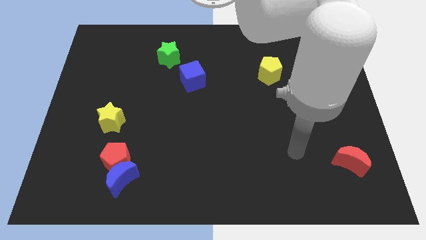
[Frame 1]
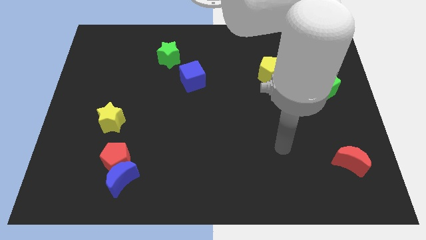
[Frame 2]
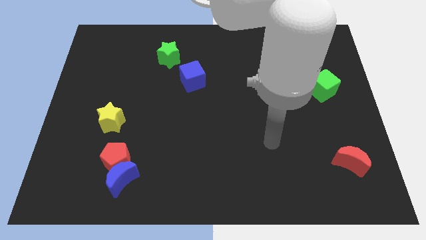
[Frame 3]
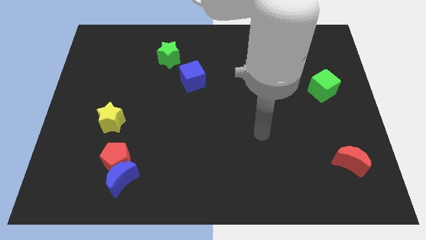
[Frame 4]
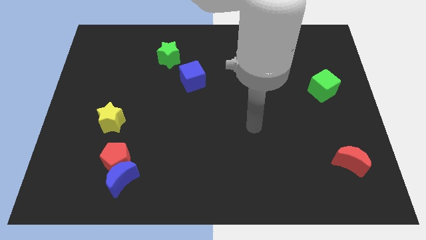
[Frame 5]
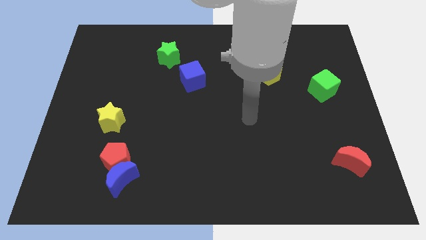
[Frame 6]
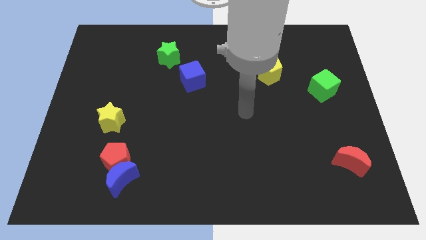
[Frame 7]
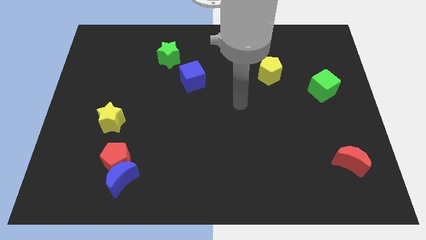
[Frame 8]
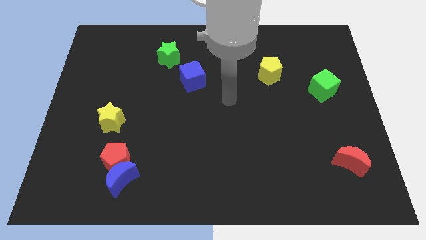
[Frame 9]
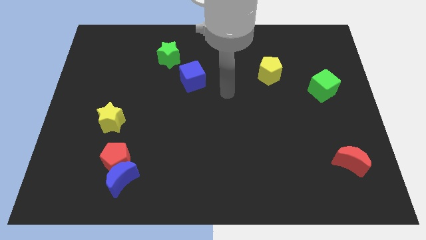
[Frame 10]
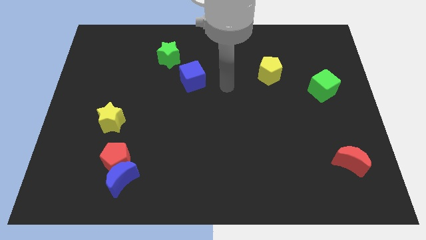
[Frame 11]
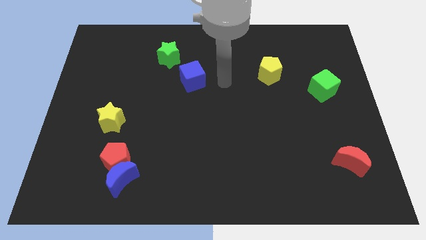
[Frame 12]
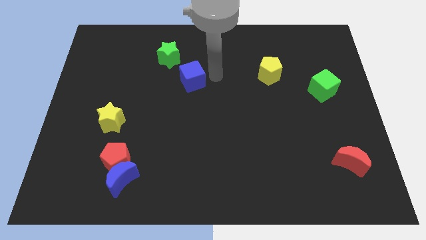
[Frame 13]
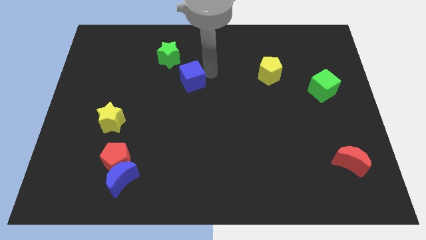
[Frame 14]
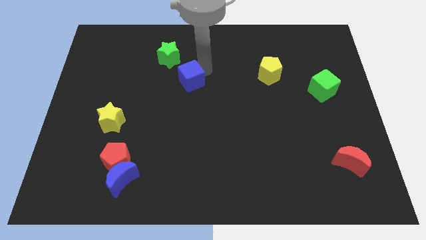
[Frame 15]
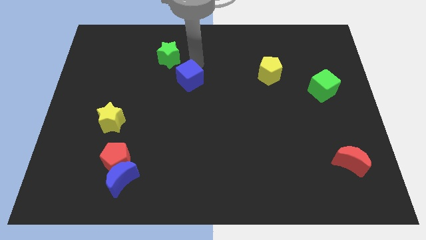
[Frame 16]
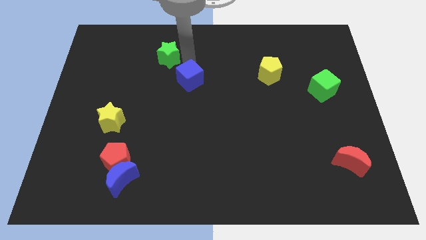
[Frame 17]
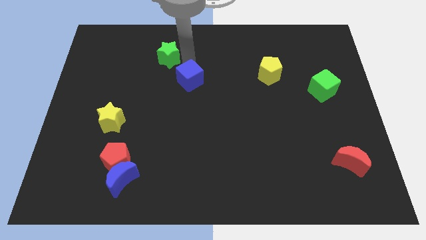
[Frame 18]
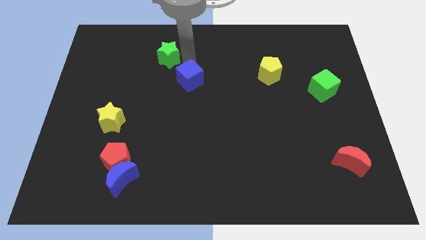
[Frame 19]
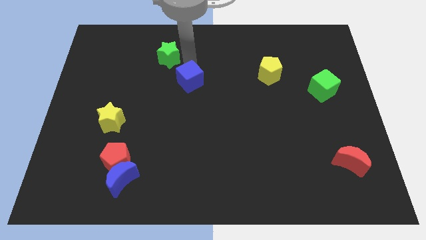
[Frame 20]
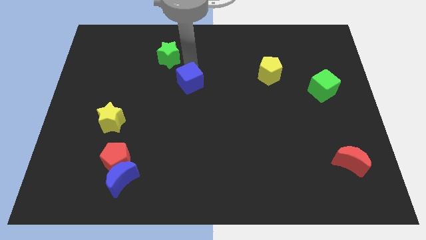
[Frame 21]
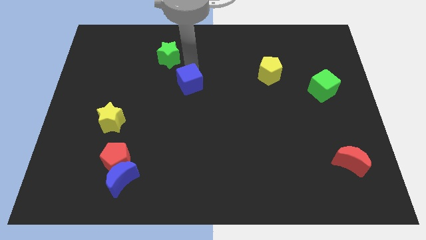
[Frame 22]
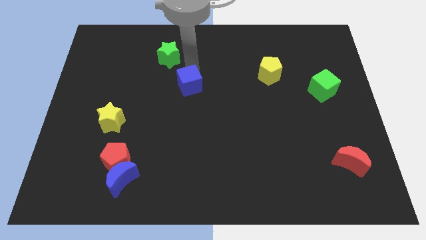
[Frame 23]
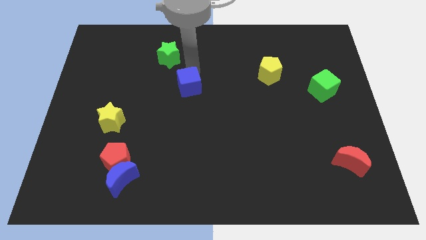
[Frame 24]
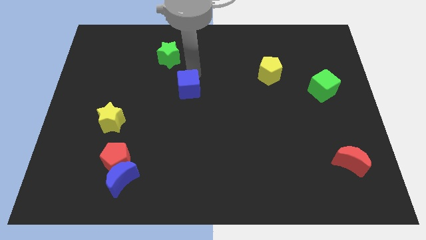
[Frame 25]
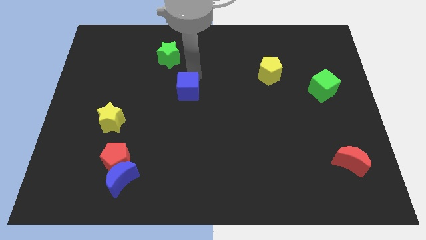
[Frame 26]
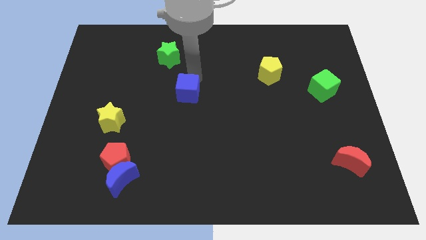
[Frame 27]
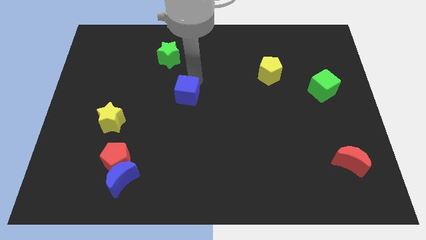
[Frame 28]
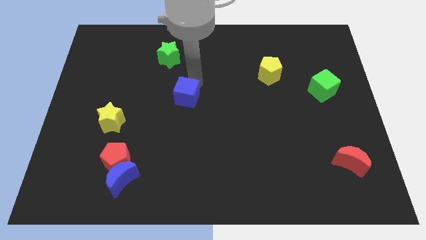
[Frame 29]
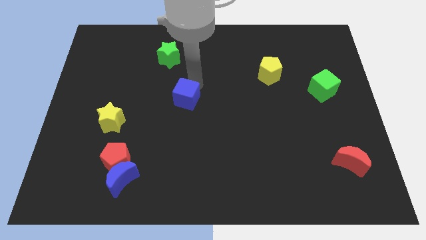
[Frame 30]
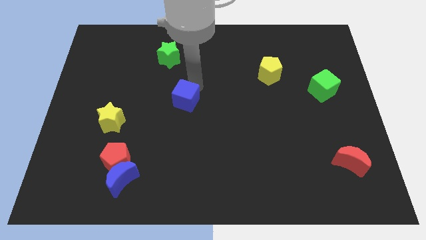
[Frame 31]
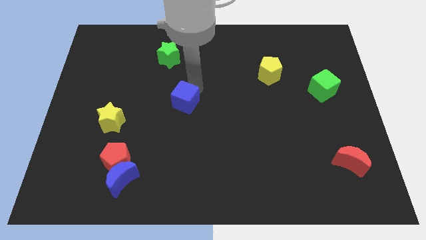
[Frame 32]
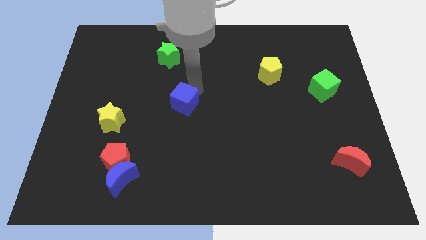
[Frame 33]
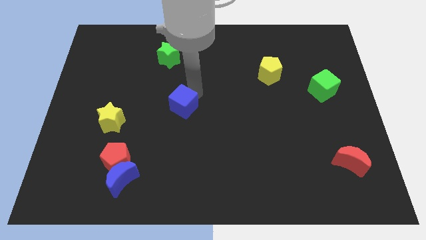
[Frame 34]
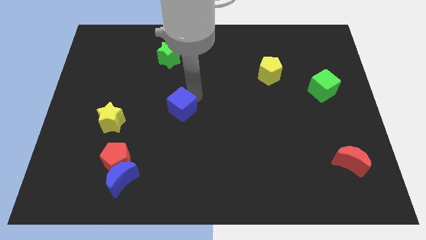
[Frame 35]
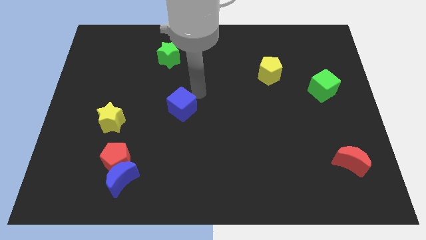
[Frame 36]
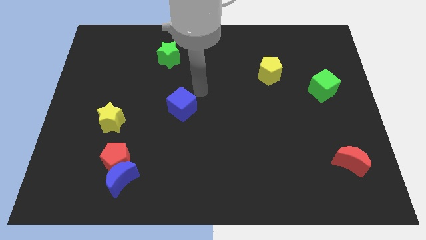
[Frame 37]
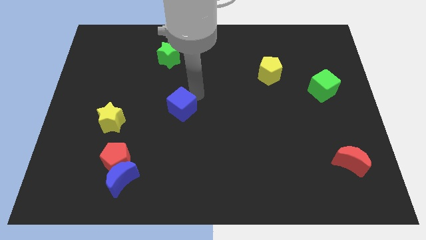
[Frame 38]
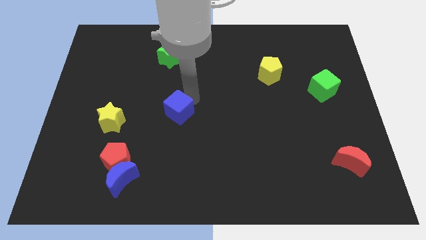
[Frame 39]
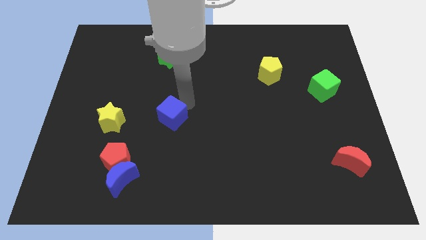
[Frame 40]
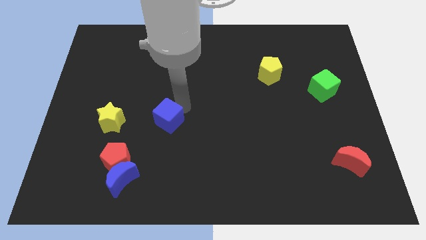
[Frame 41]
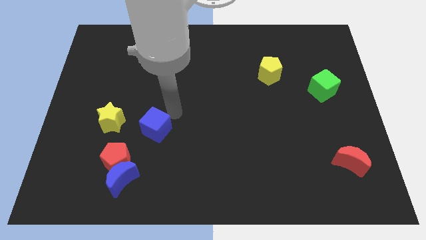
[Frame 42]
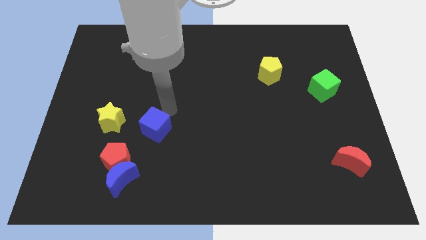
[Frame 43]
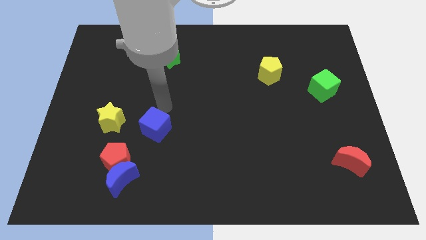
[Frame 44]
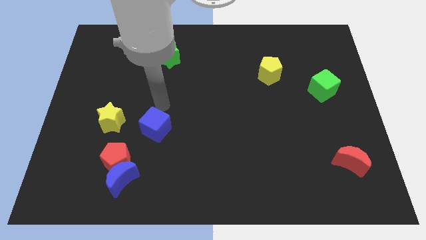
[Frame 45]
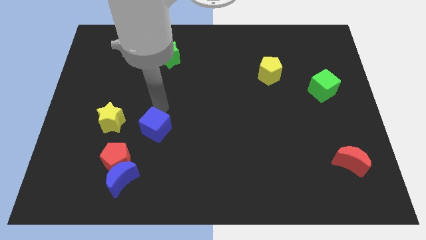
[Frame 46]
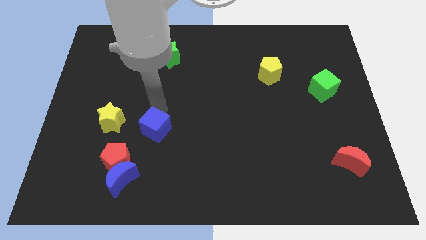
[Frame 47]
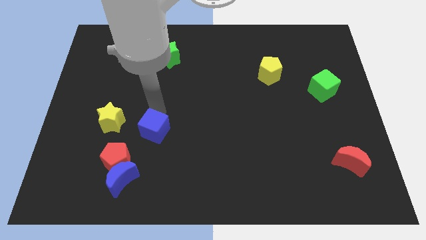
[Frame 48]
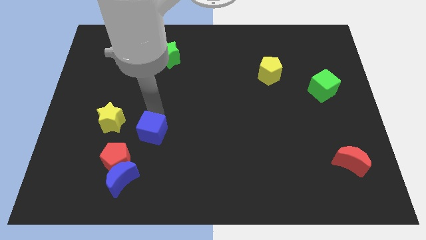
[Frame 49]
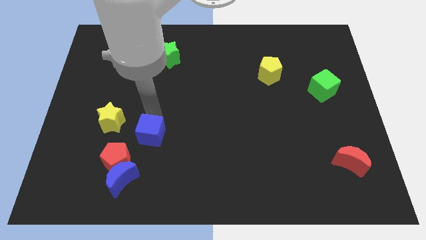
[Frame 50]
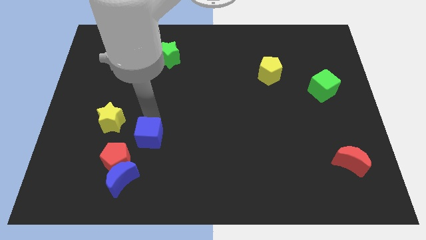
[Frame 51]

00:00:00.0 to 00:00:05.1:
put the blue cube to the top right side of the blue moon

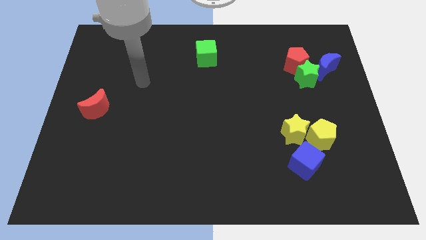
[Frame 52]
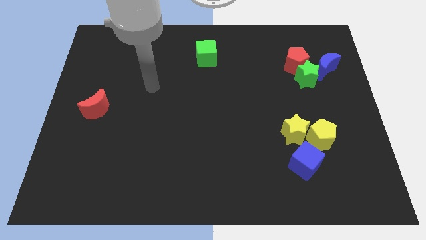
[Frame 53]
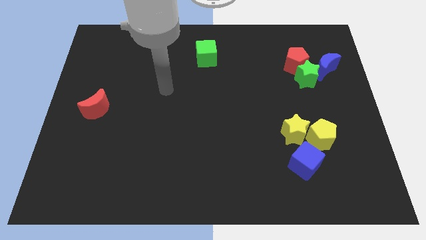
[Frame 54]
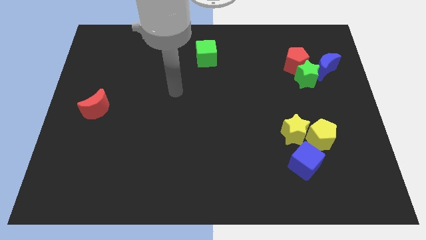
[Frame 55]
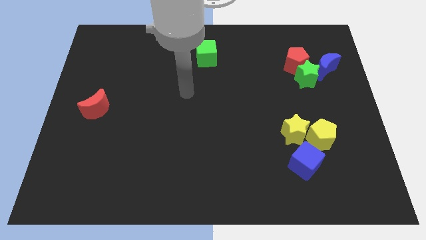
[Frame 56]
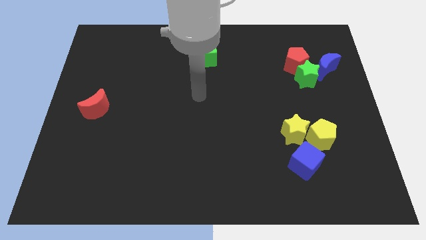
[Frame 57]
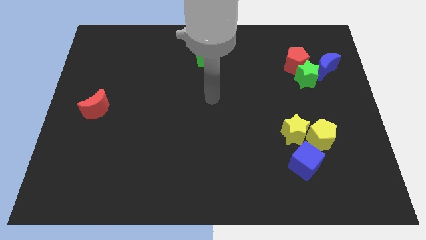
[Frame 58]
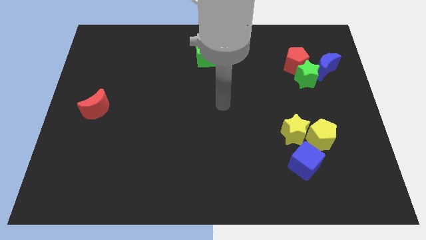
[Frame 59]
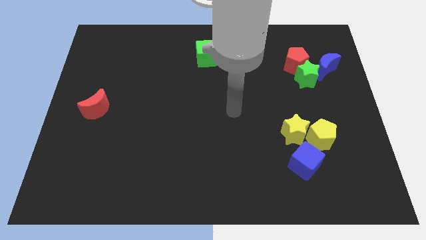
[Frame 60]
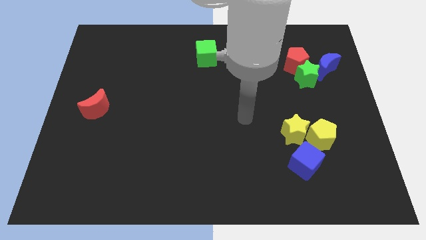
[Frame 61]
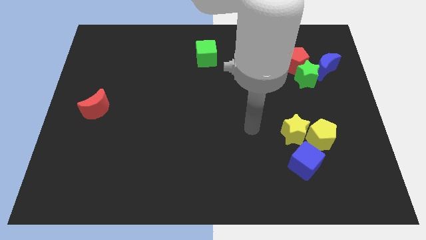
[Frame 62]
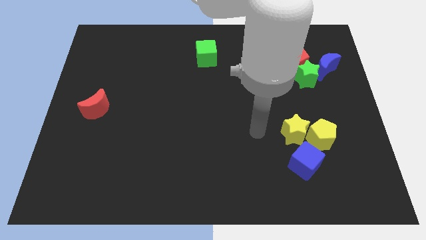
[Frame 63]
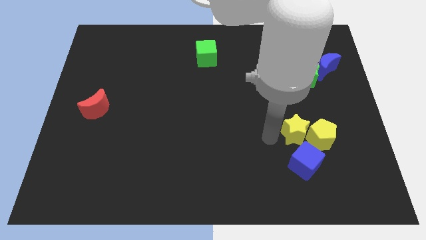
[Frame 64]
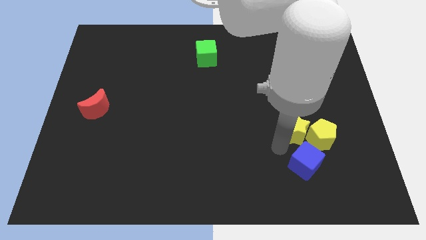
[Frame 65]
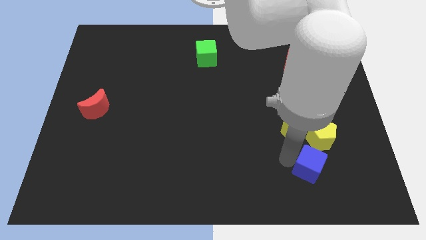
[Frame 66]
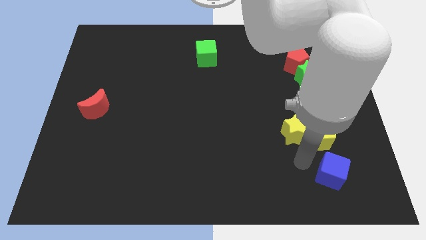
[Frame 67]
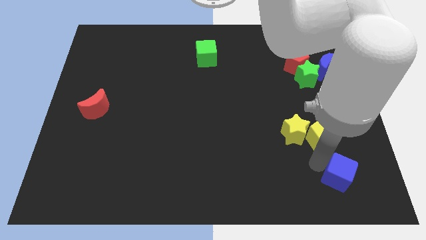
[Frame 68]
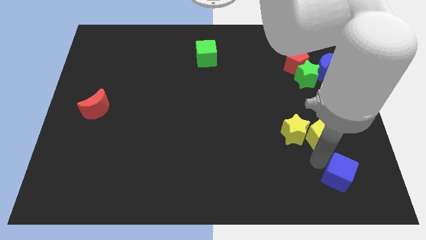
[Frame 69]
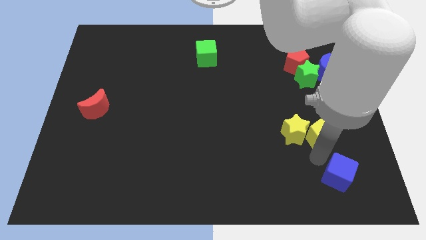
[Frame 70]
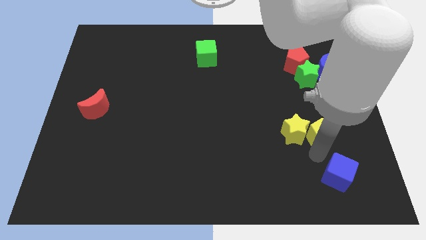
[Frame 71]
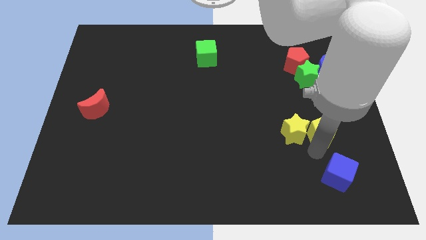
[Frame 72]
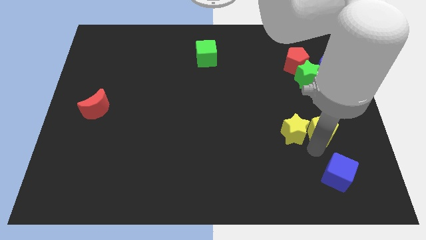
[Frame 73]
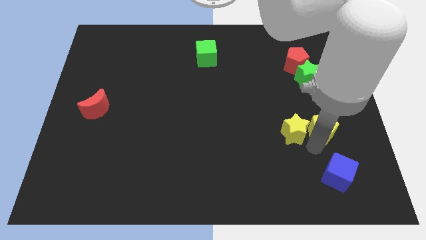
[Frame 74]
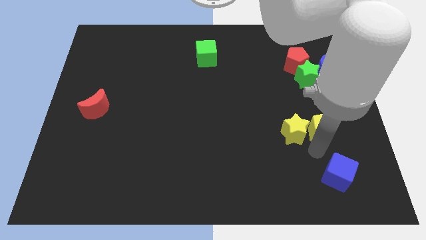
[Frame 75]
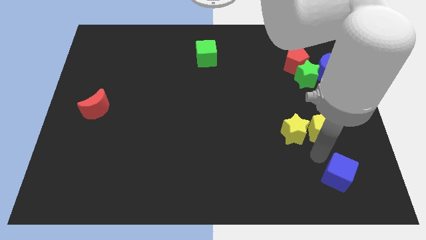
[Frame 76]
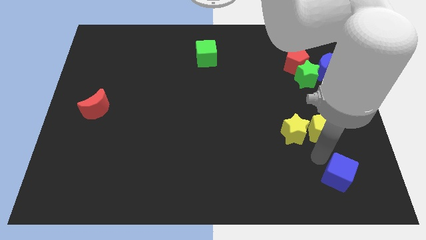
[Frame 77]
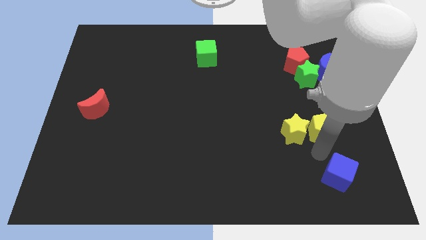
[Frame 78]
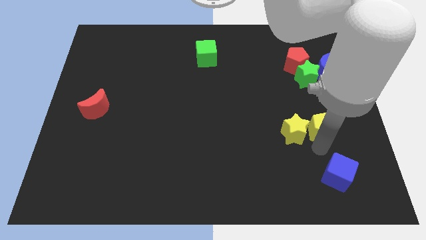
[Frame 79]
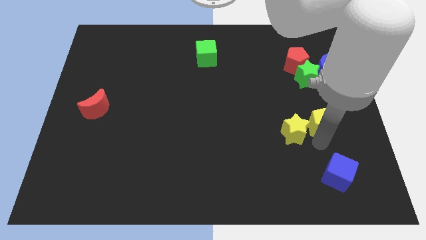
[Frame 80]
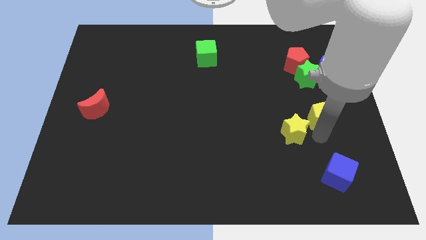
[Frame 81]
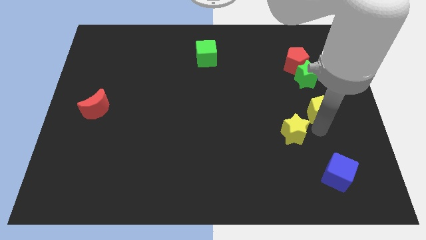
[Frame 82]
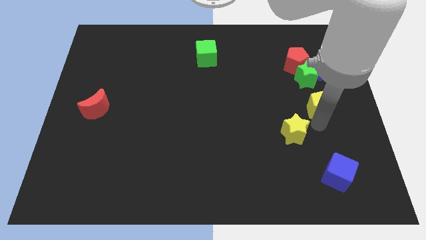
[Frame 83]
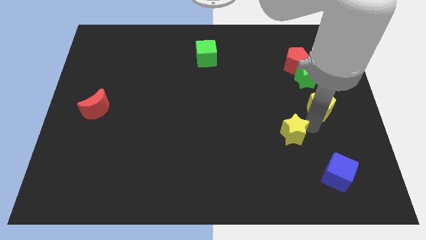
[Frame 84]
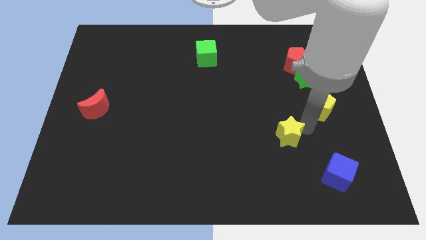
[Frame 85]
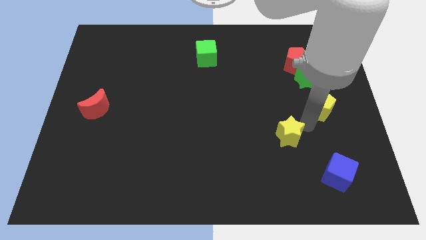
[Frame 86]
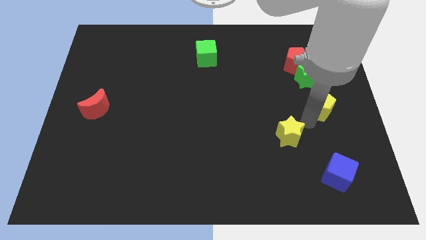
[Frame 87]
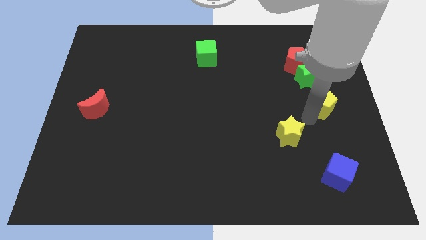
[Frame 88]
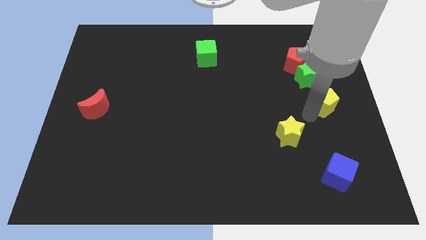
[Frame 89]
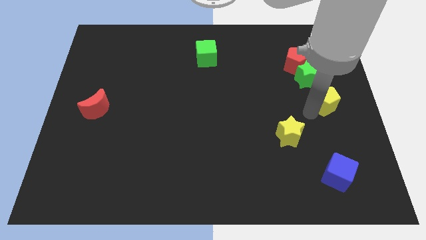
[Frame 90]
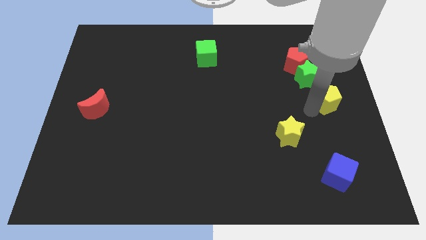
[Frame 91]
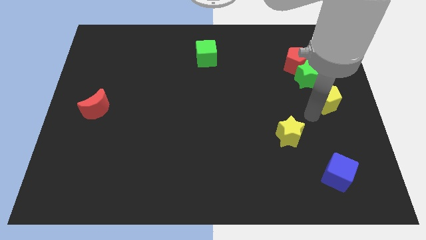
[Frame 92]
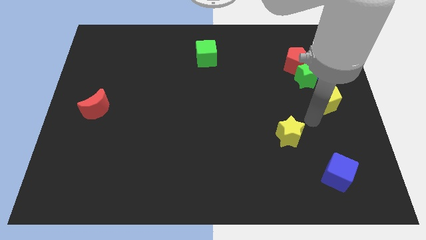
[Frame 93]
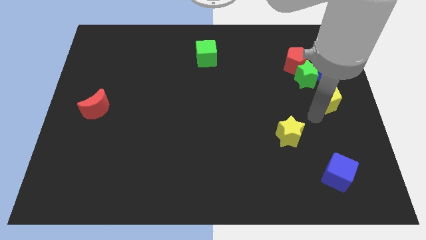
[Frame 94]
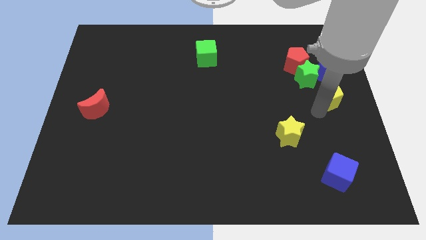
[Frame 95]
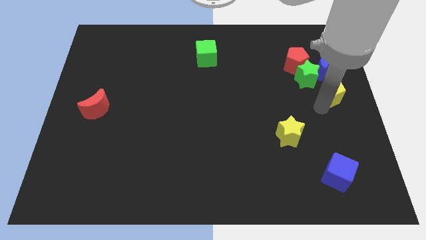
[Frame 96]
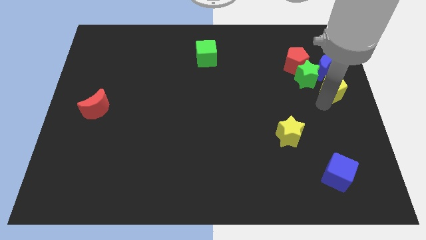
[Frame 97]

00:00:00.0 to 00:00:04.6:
push the yellow pentagon to the bottom right of the red pentagon
